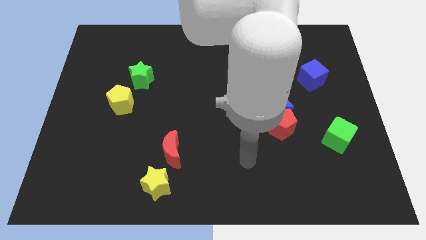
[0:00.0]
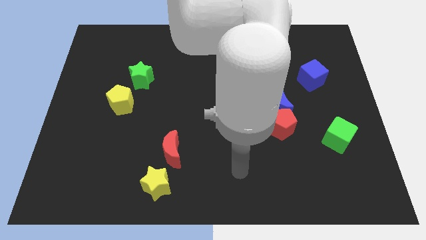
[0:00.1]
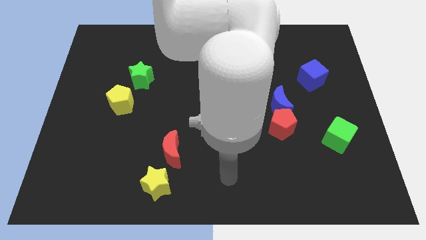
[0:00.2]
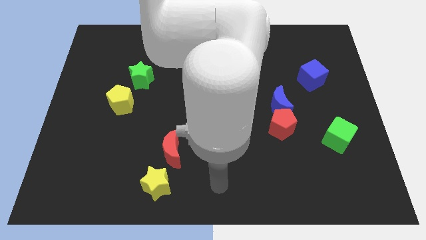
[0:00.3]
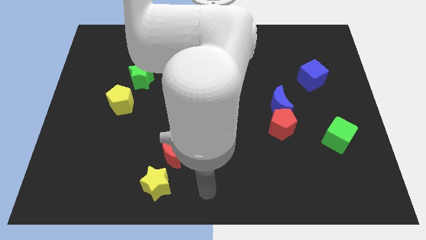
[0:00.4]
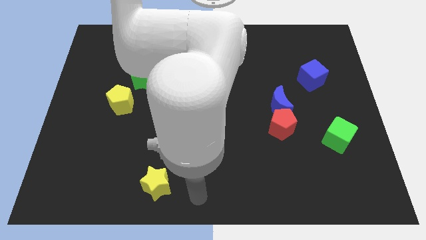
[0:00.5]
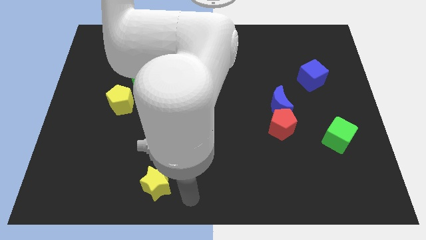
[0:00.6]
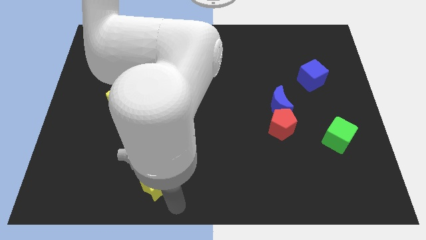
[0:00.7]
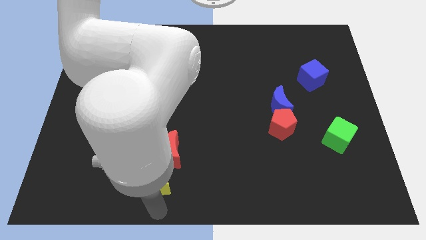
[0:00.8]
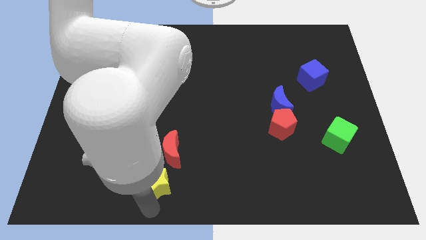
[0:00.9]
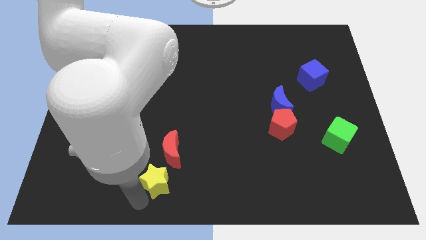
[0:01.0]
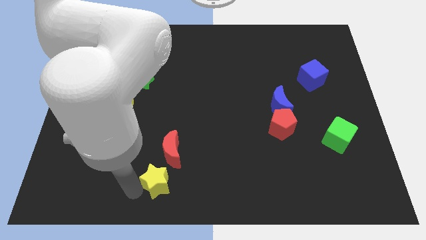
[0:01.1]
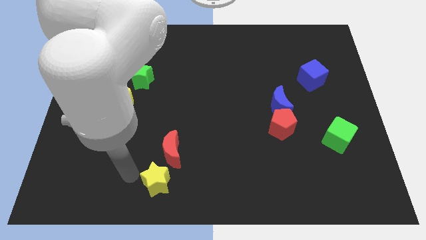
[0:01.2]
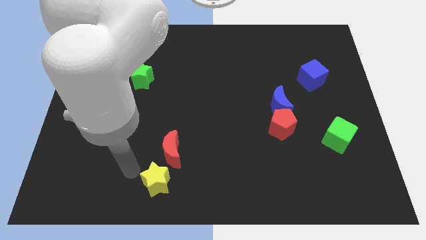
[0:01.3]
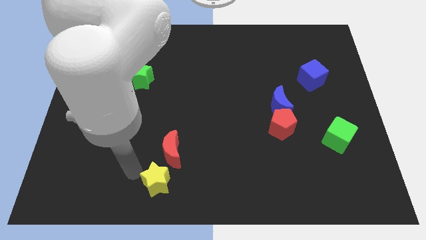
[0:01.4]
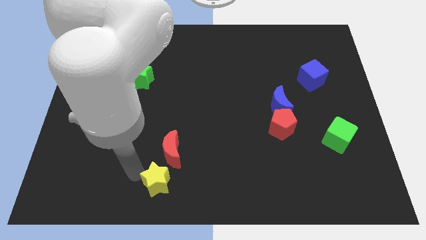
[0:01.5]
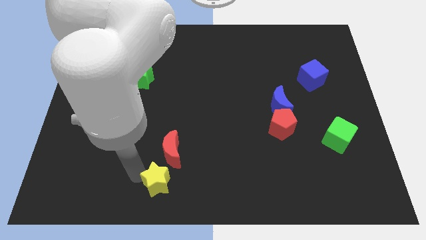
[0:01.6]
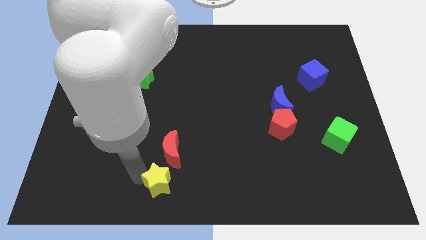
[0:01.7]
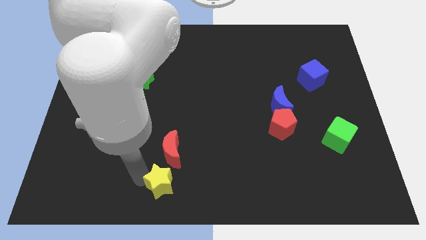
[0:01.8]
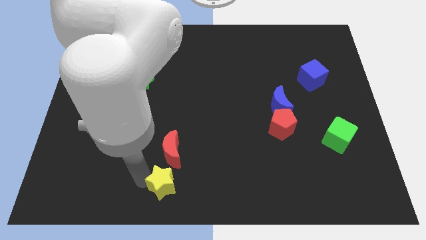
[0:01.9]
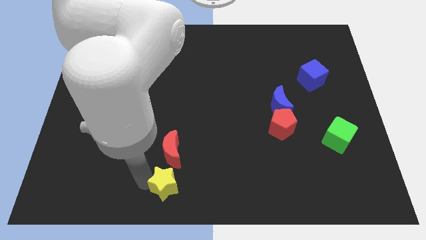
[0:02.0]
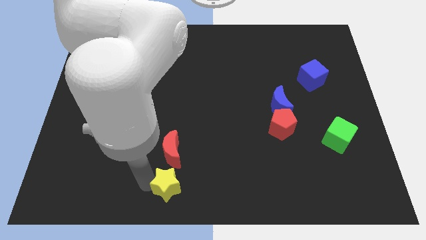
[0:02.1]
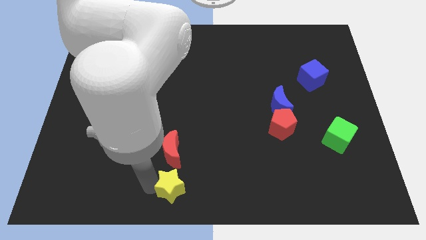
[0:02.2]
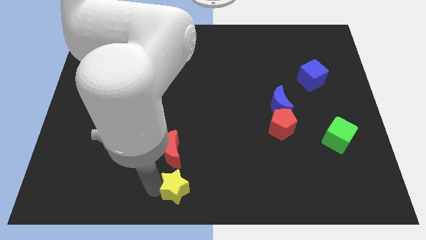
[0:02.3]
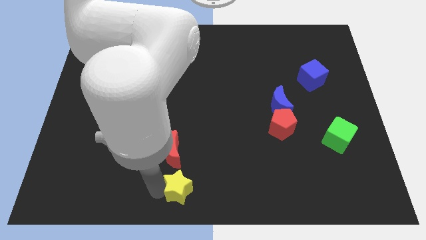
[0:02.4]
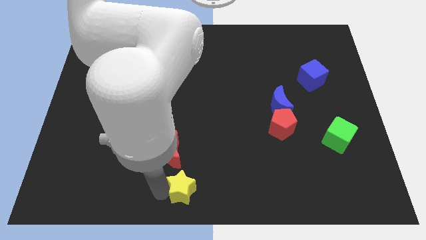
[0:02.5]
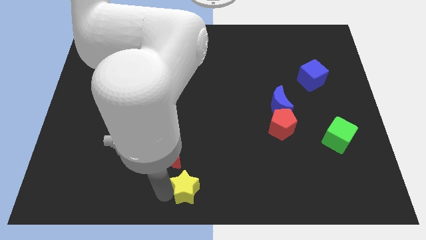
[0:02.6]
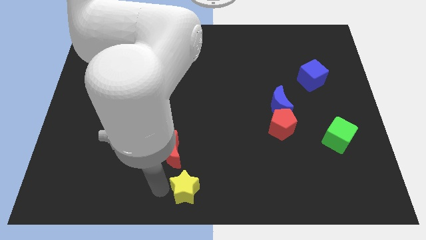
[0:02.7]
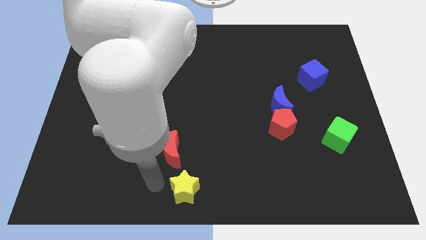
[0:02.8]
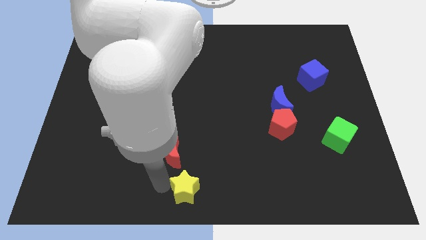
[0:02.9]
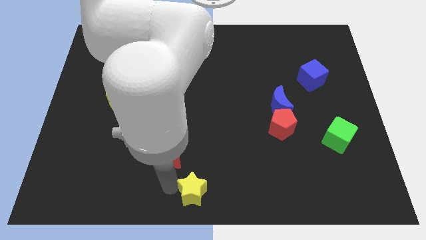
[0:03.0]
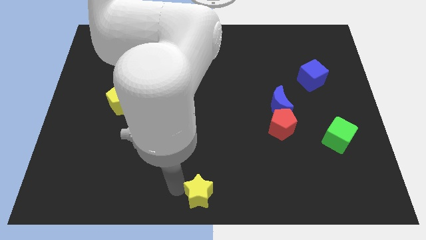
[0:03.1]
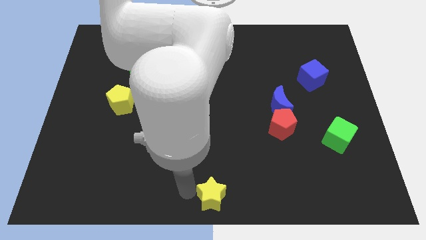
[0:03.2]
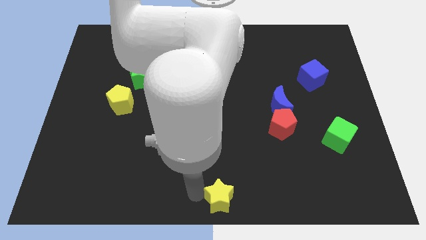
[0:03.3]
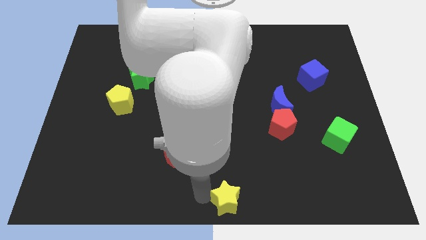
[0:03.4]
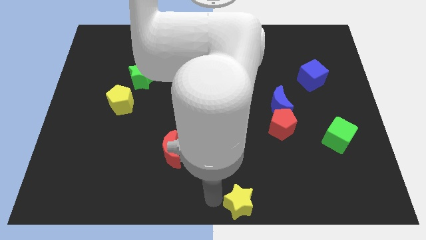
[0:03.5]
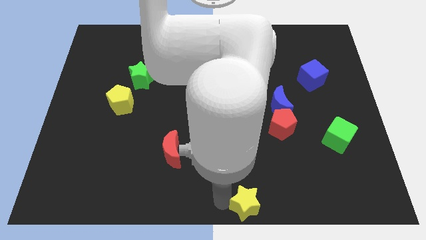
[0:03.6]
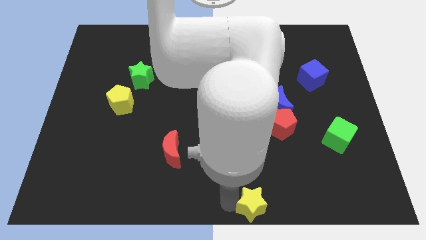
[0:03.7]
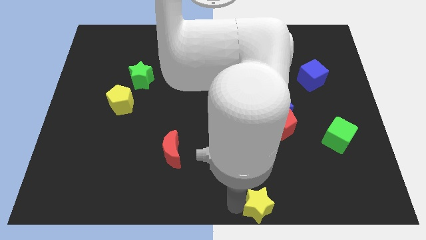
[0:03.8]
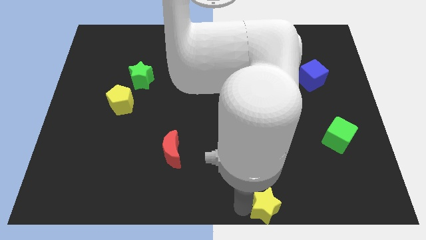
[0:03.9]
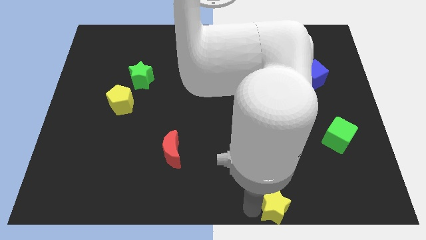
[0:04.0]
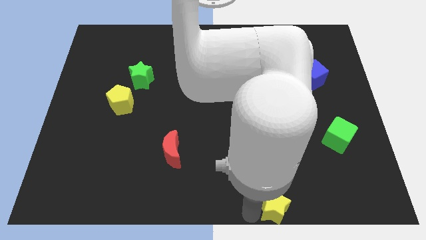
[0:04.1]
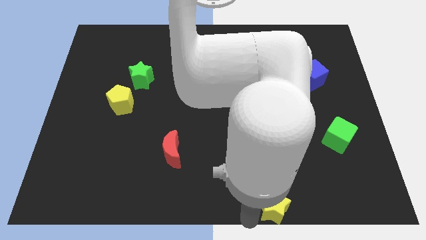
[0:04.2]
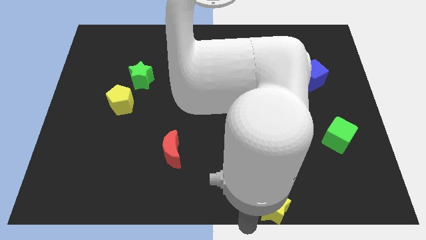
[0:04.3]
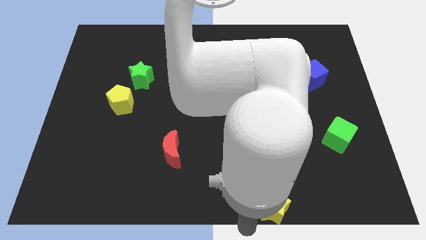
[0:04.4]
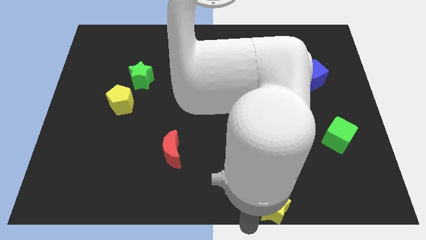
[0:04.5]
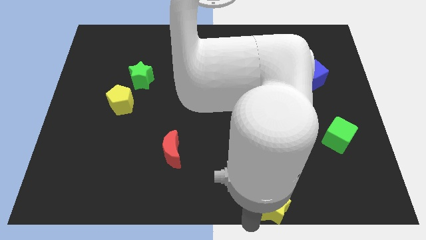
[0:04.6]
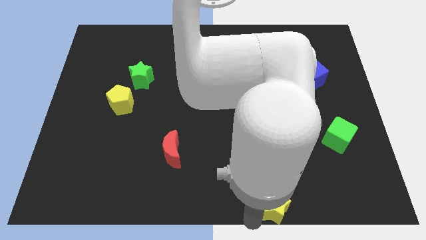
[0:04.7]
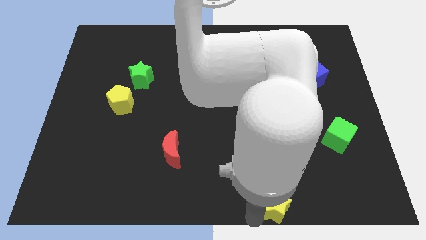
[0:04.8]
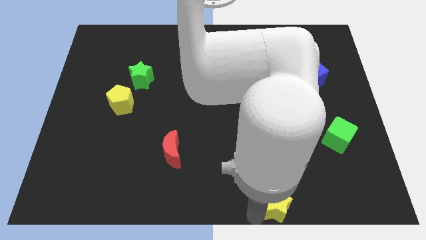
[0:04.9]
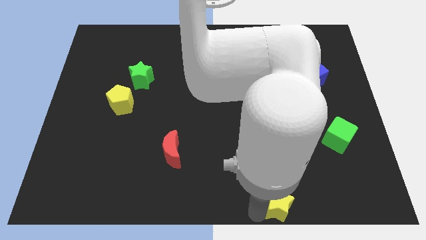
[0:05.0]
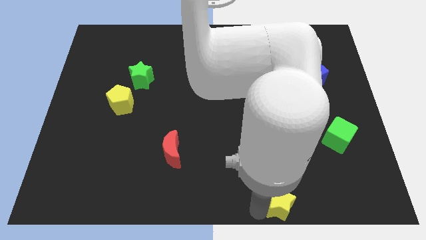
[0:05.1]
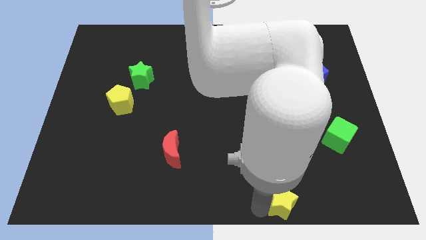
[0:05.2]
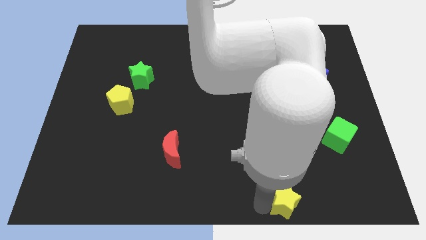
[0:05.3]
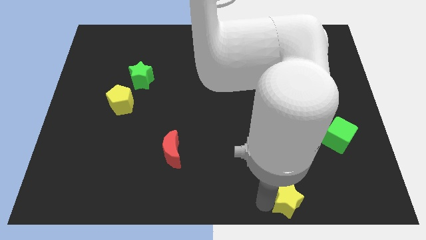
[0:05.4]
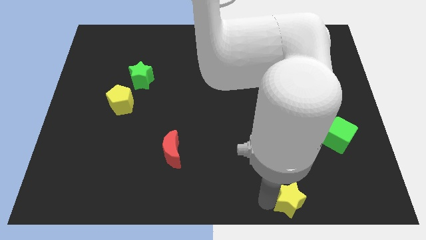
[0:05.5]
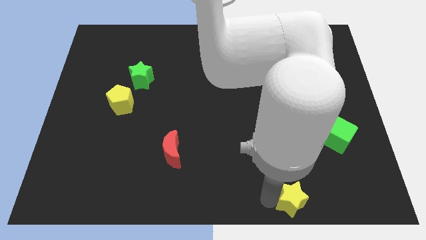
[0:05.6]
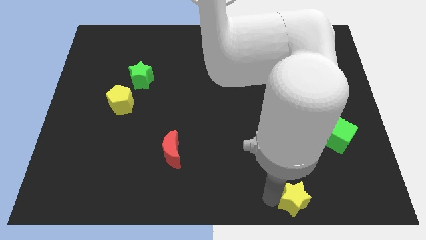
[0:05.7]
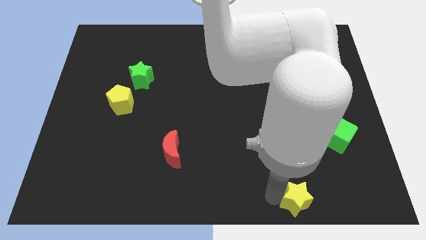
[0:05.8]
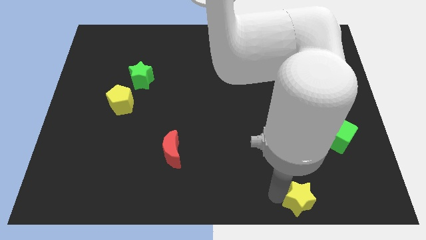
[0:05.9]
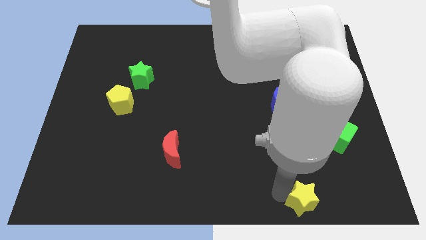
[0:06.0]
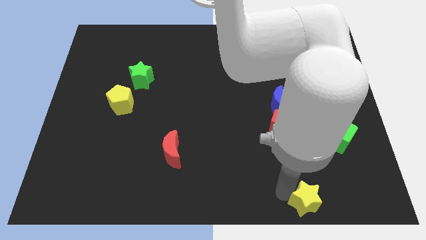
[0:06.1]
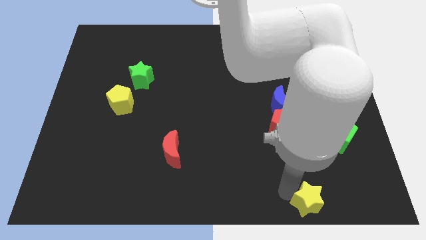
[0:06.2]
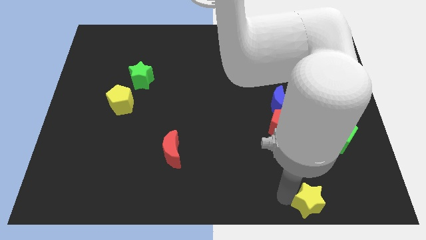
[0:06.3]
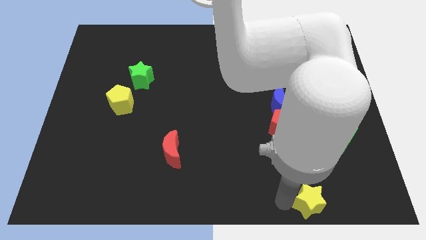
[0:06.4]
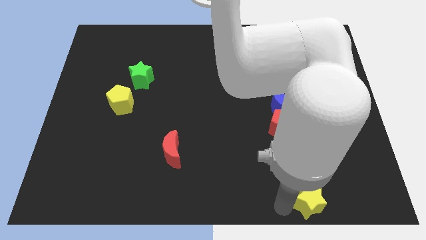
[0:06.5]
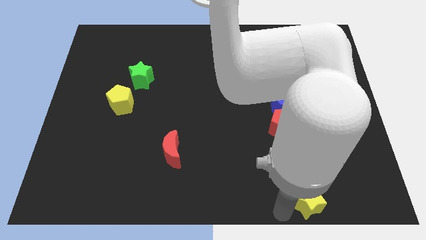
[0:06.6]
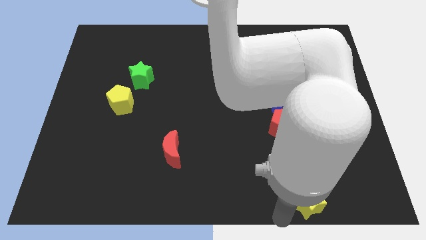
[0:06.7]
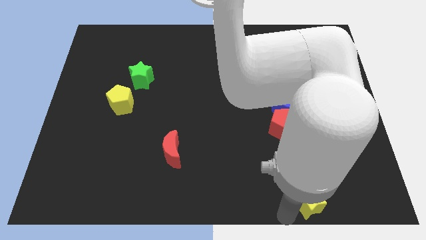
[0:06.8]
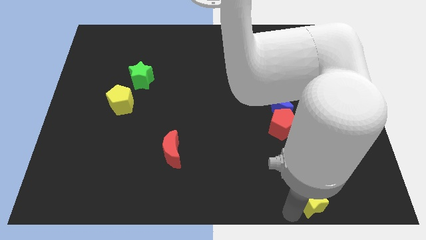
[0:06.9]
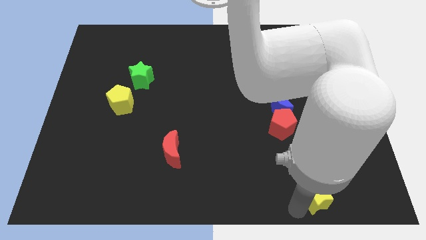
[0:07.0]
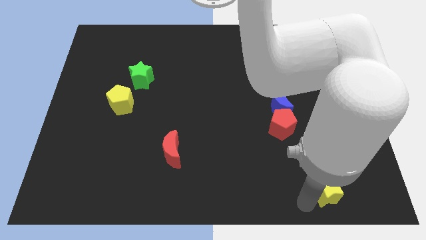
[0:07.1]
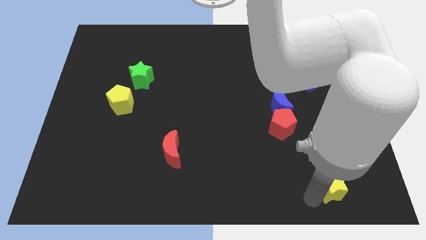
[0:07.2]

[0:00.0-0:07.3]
push the yellow star to the bottom of the green cube
